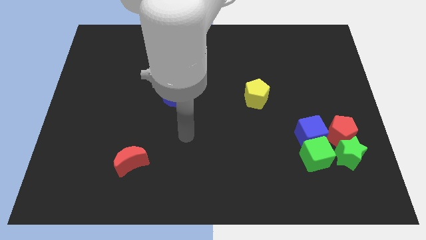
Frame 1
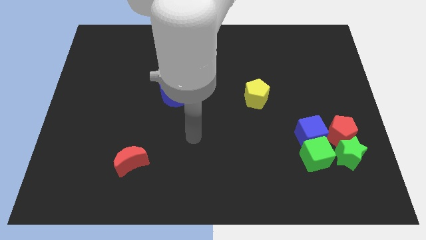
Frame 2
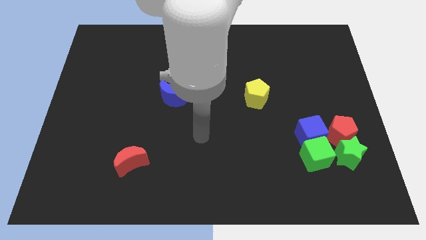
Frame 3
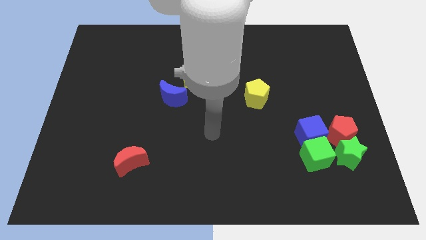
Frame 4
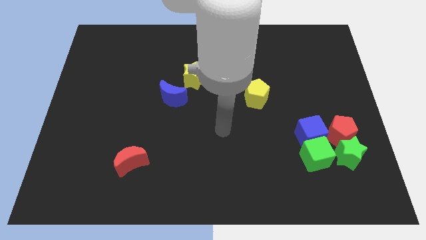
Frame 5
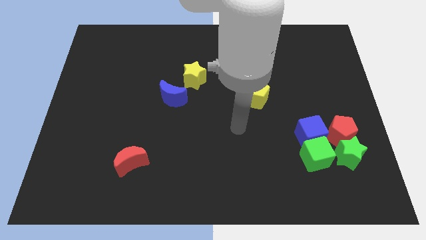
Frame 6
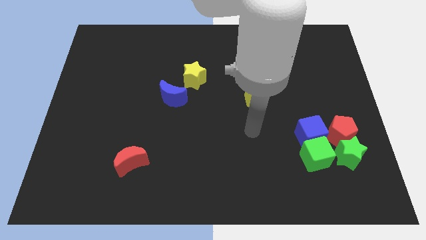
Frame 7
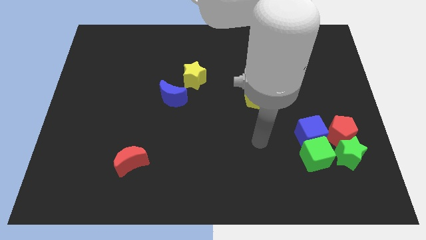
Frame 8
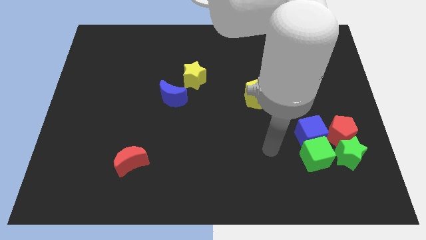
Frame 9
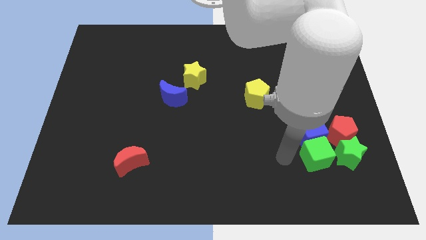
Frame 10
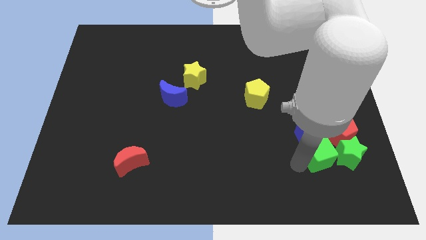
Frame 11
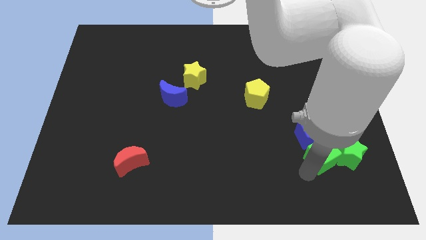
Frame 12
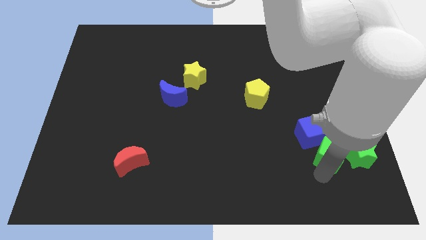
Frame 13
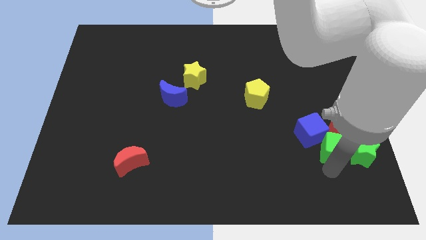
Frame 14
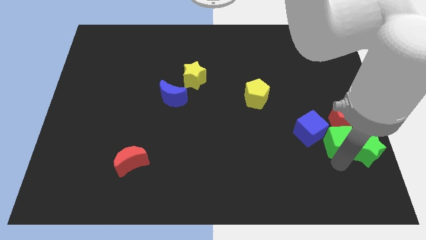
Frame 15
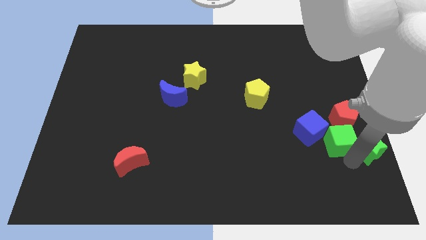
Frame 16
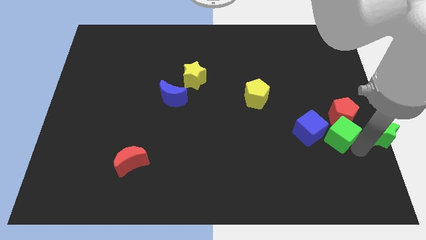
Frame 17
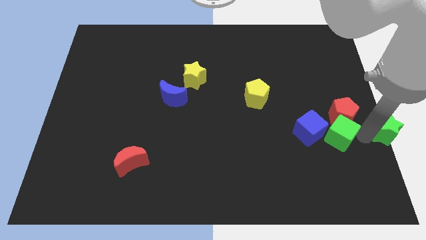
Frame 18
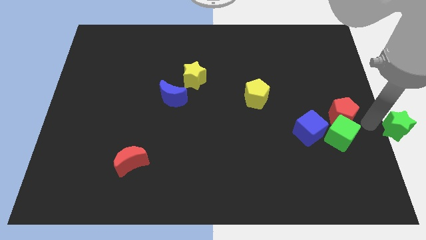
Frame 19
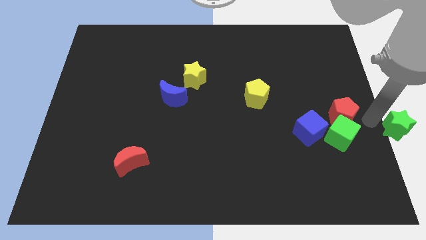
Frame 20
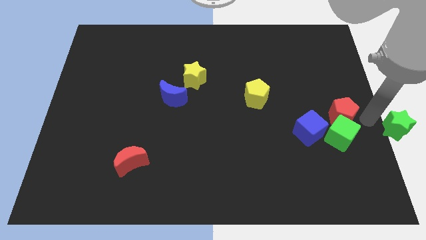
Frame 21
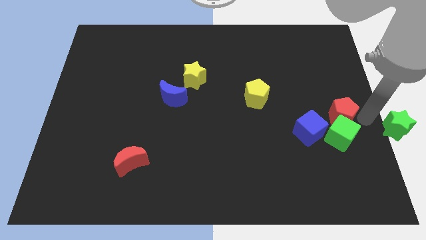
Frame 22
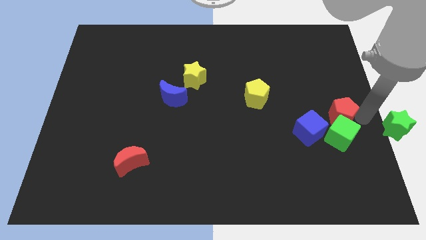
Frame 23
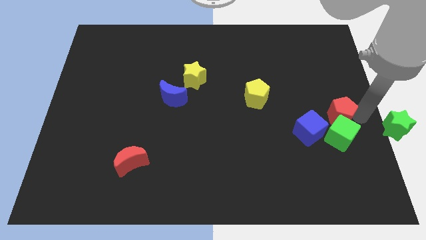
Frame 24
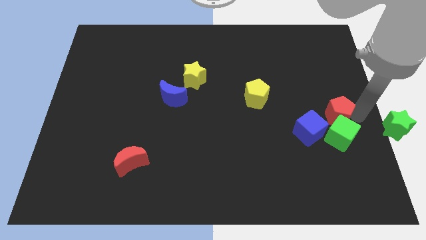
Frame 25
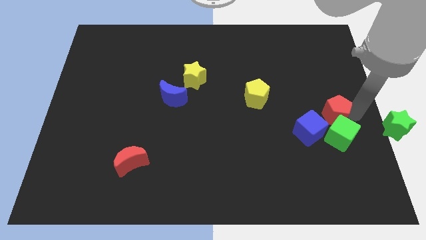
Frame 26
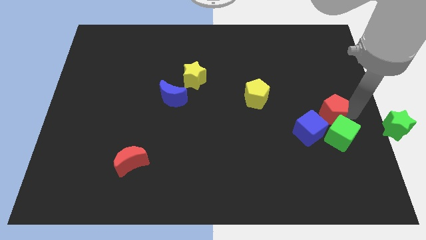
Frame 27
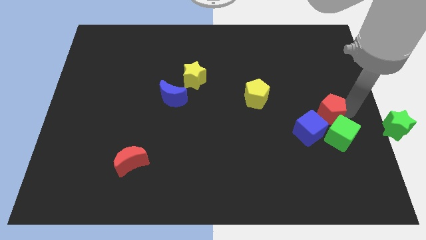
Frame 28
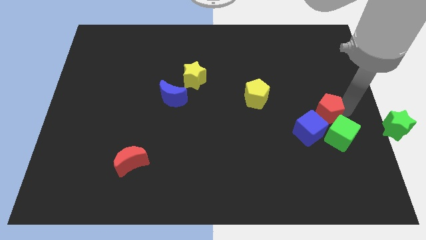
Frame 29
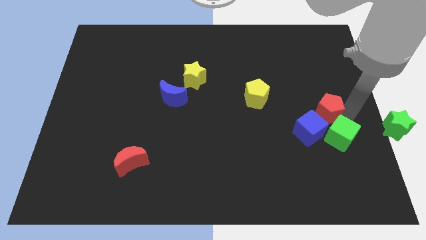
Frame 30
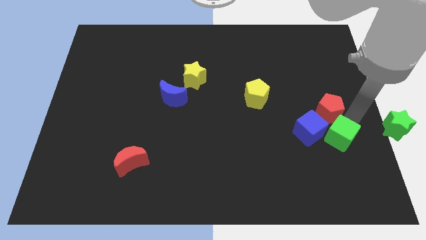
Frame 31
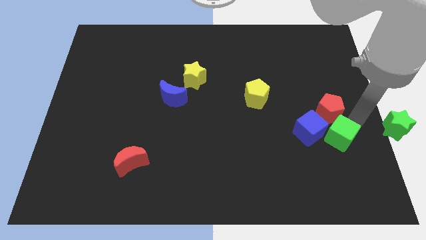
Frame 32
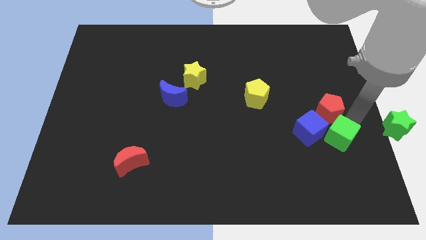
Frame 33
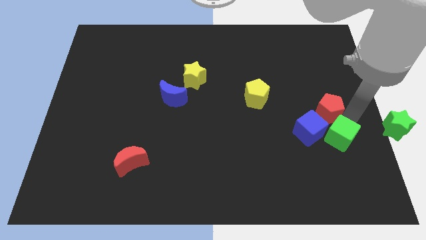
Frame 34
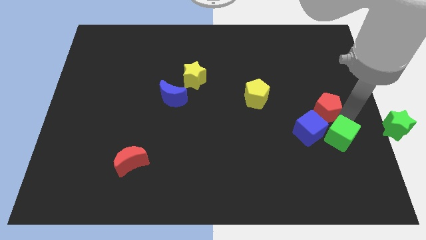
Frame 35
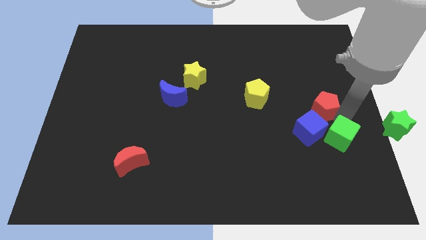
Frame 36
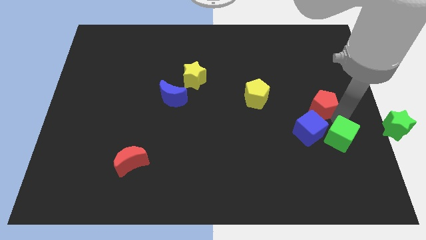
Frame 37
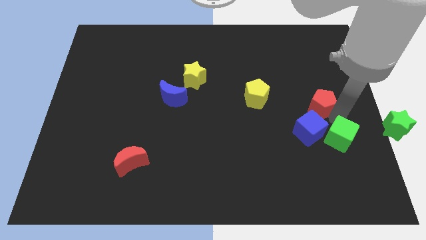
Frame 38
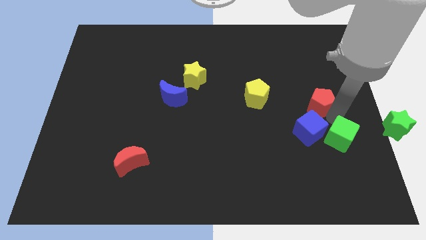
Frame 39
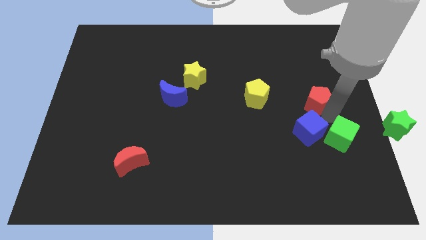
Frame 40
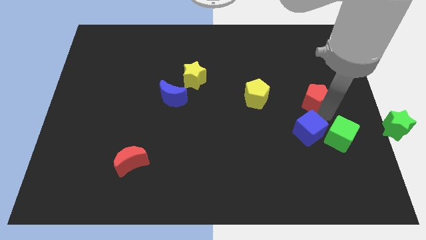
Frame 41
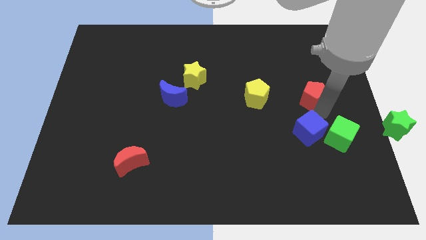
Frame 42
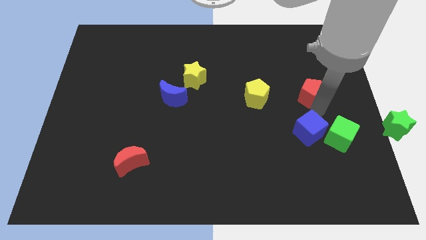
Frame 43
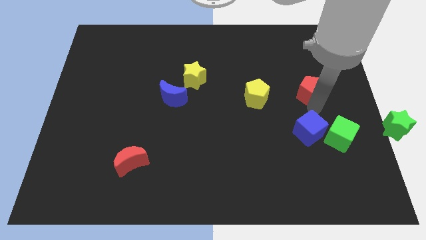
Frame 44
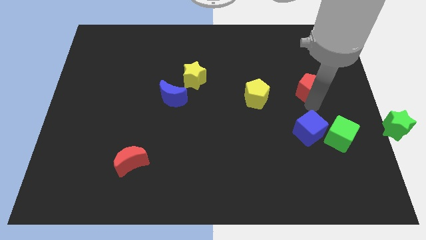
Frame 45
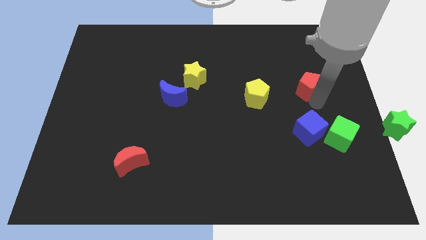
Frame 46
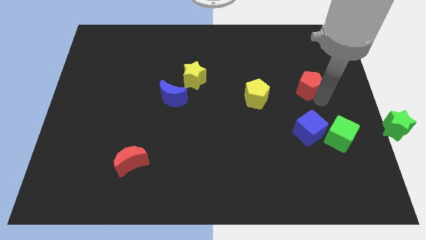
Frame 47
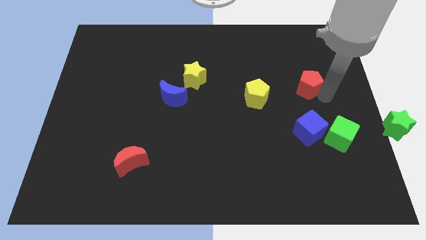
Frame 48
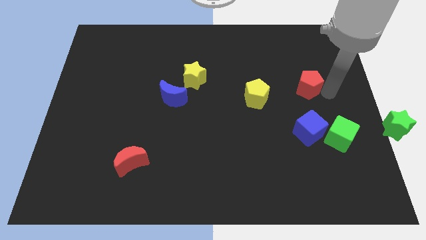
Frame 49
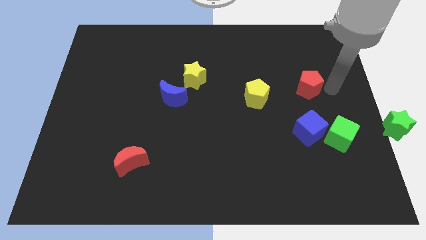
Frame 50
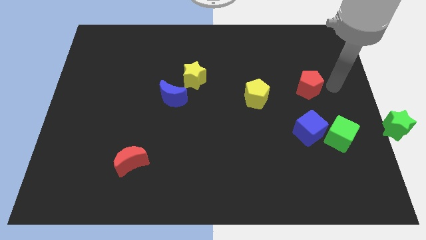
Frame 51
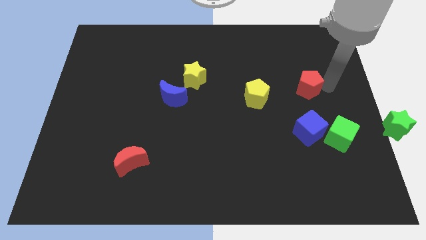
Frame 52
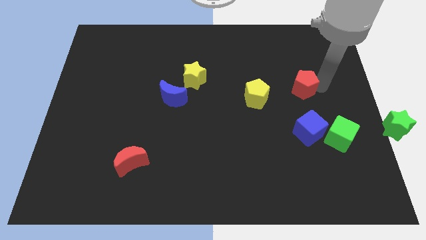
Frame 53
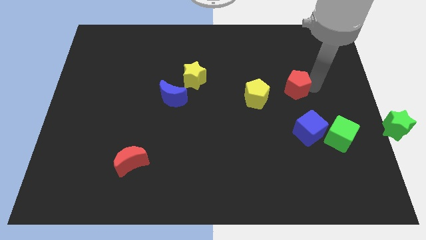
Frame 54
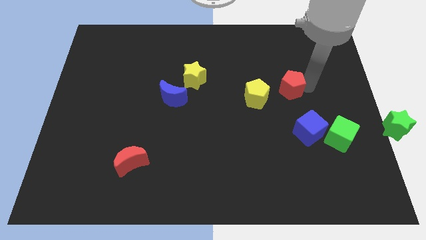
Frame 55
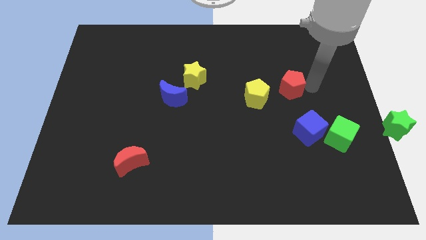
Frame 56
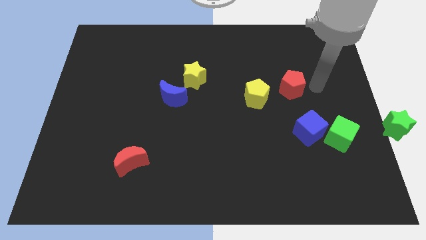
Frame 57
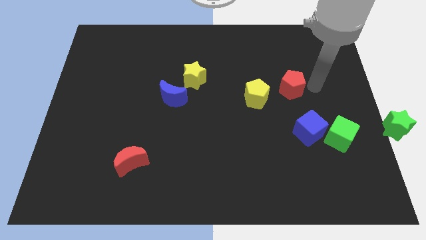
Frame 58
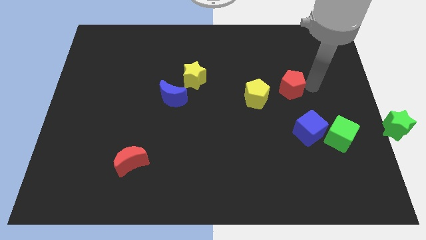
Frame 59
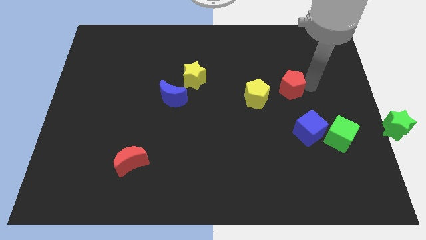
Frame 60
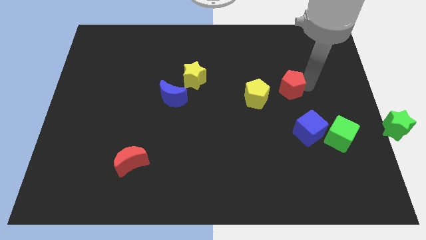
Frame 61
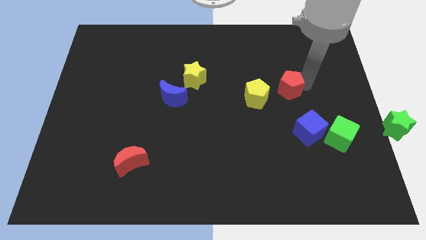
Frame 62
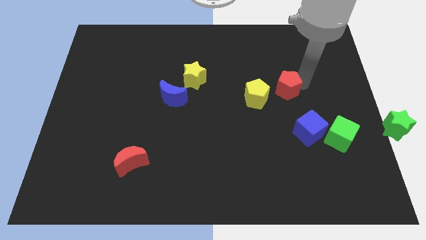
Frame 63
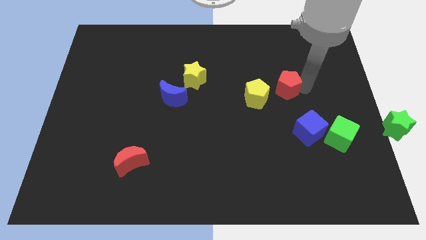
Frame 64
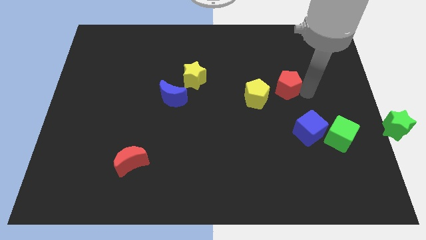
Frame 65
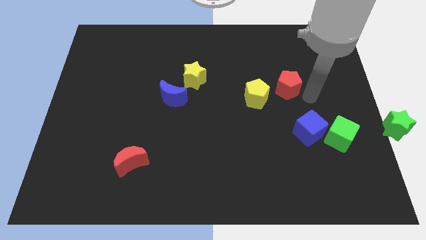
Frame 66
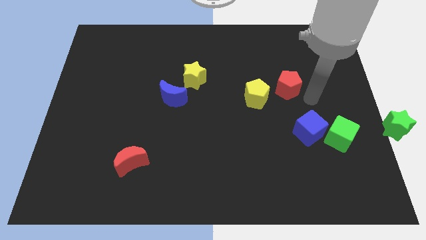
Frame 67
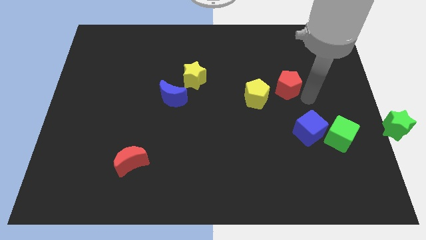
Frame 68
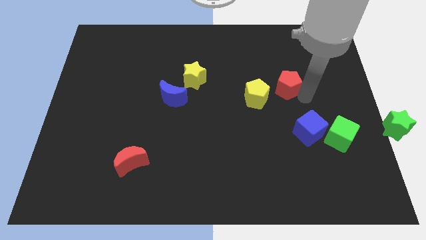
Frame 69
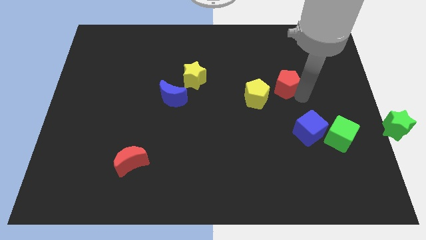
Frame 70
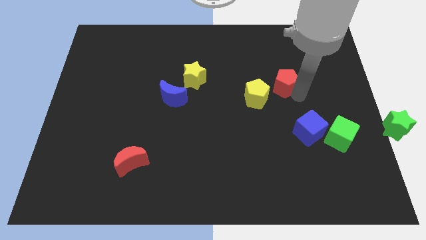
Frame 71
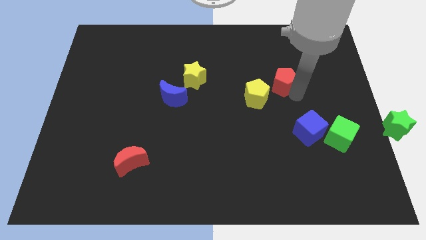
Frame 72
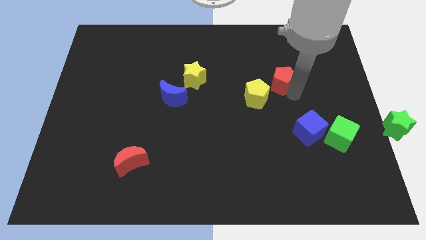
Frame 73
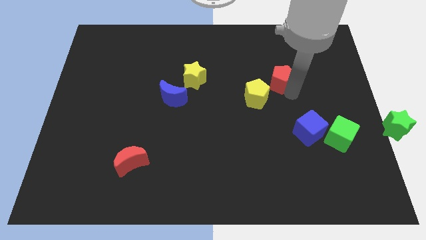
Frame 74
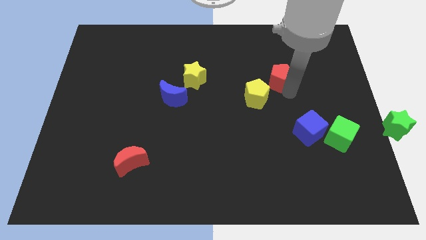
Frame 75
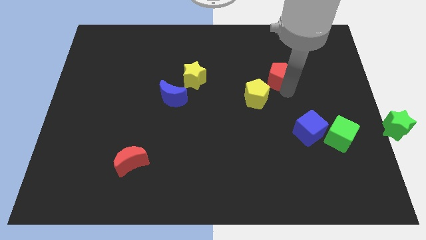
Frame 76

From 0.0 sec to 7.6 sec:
push the red pentagon up and then to the left

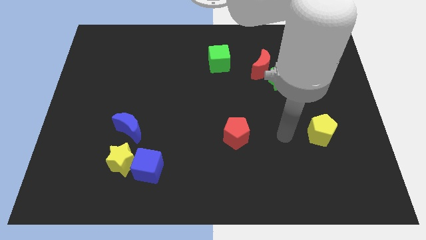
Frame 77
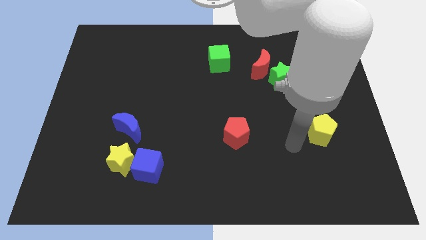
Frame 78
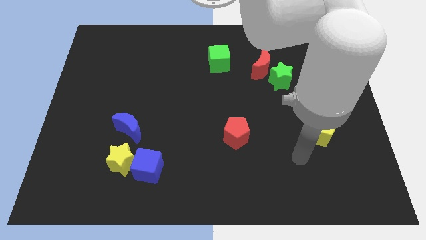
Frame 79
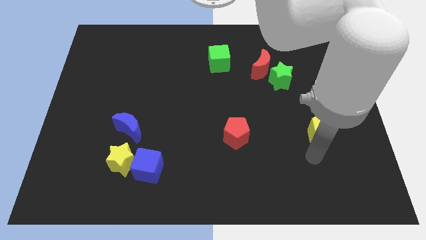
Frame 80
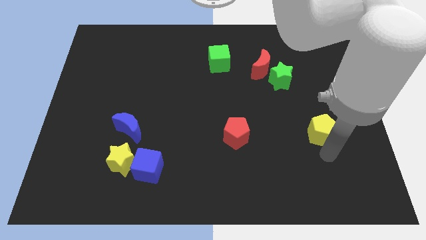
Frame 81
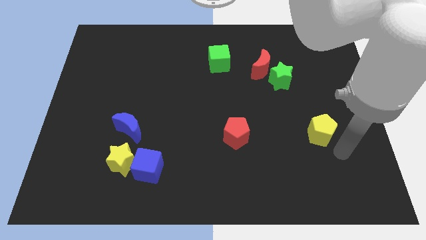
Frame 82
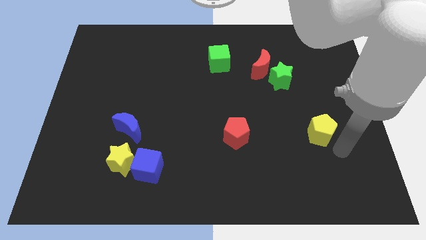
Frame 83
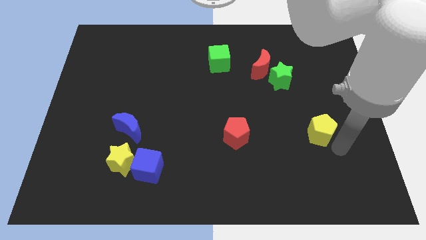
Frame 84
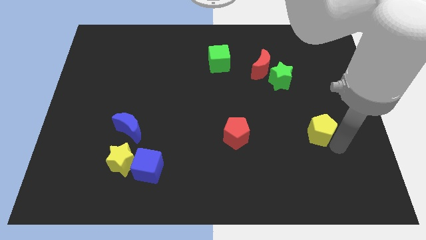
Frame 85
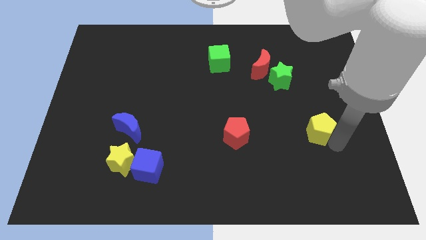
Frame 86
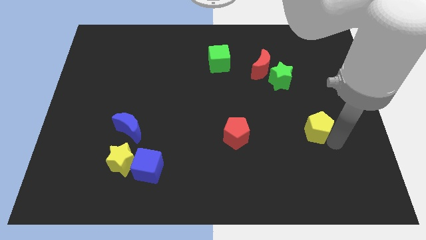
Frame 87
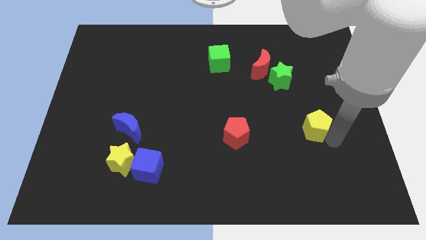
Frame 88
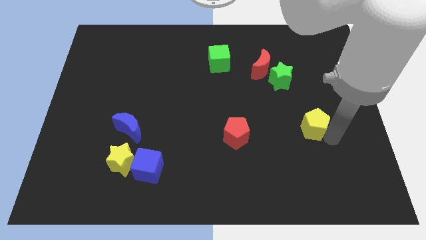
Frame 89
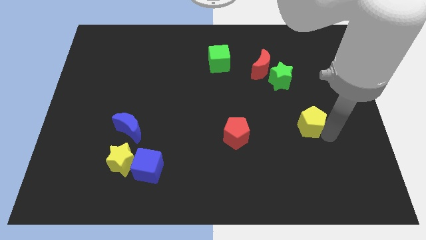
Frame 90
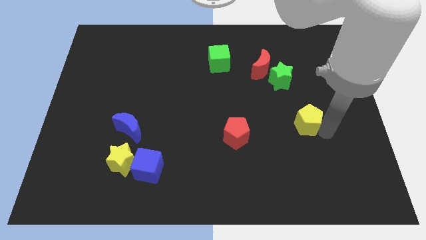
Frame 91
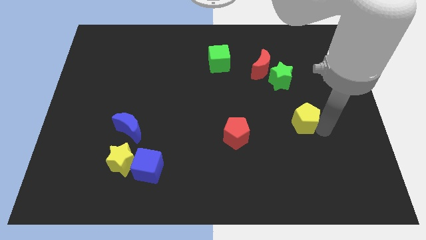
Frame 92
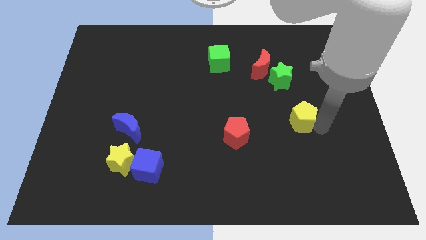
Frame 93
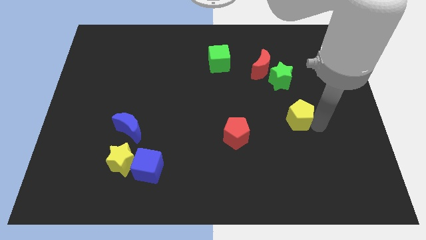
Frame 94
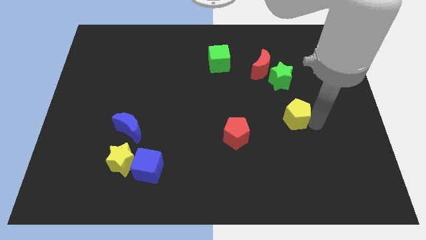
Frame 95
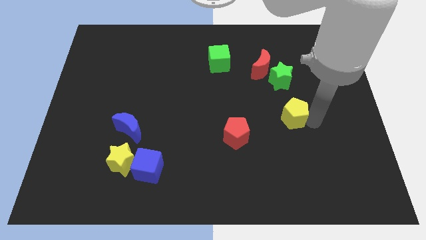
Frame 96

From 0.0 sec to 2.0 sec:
slide the yellow pentagon slightly diagonally upwards and to the left
